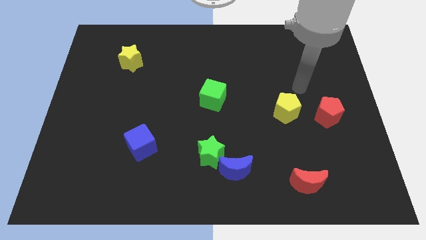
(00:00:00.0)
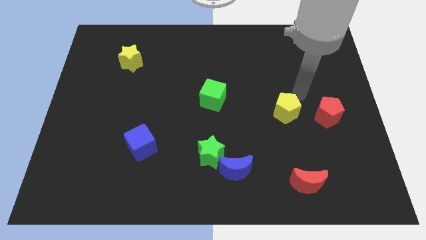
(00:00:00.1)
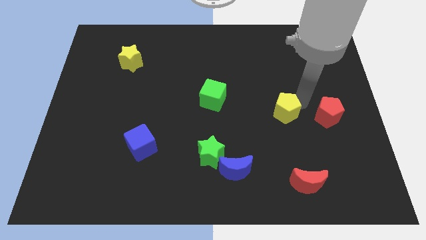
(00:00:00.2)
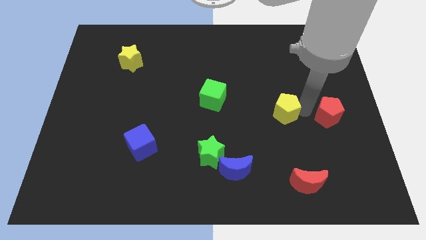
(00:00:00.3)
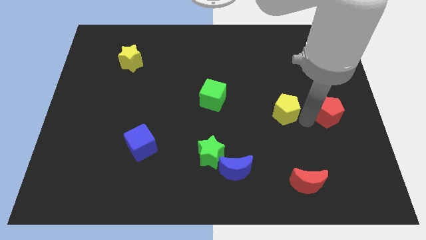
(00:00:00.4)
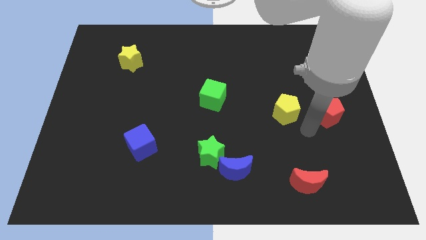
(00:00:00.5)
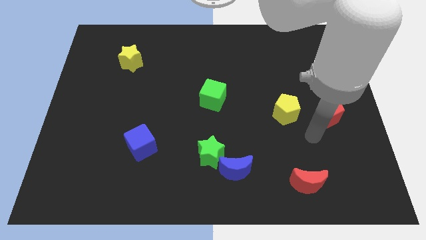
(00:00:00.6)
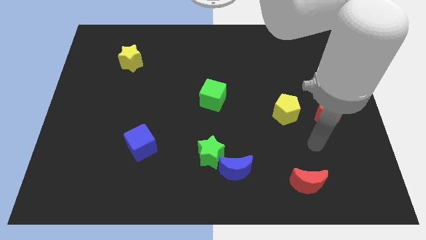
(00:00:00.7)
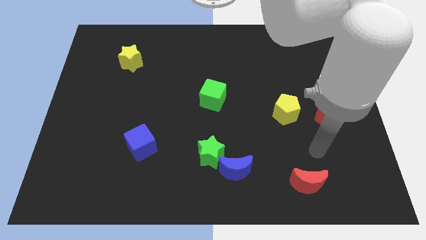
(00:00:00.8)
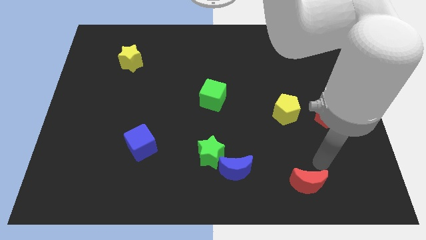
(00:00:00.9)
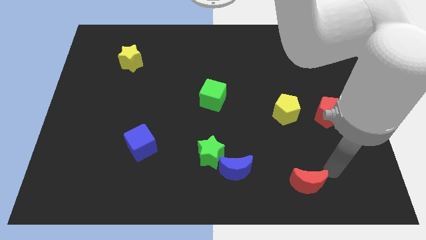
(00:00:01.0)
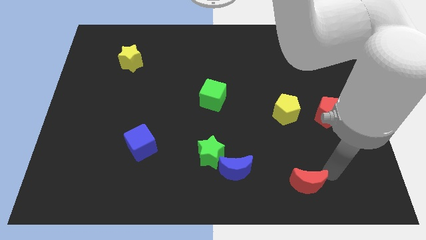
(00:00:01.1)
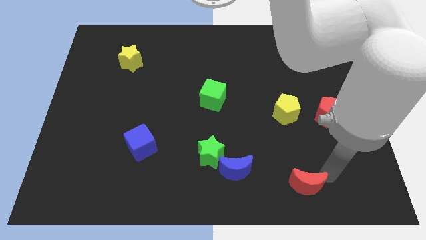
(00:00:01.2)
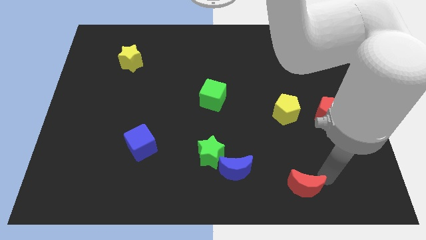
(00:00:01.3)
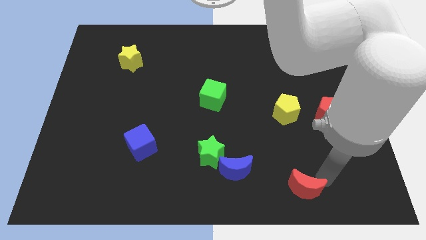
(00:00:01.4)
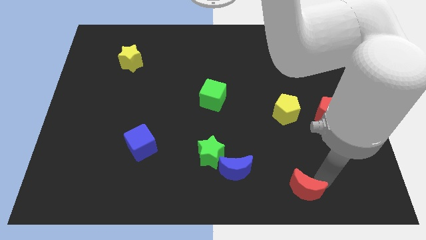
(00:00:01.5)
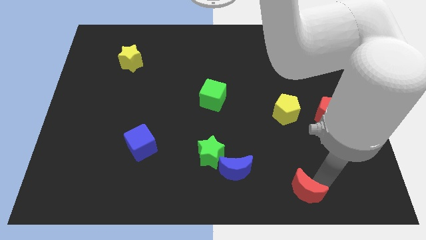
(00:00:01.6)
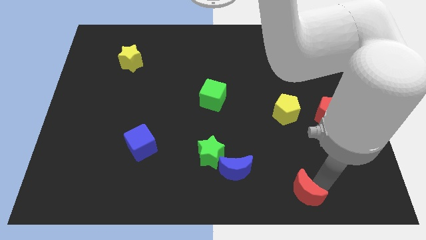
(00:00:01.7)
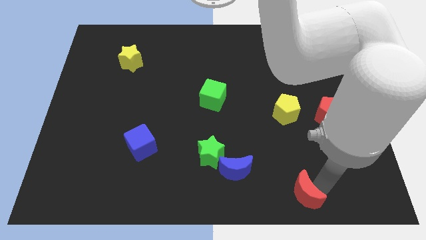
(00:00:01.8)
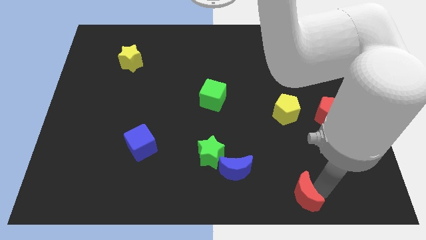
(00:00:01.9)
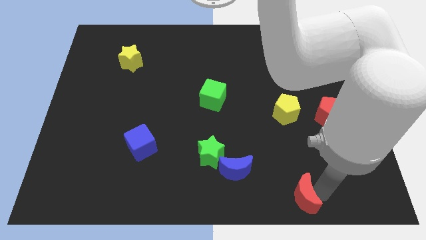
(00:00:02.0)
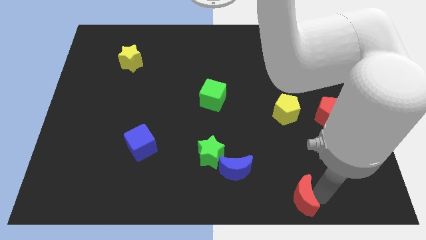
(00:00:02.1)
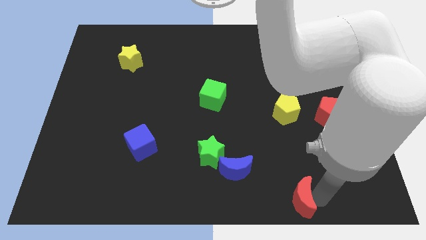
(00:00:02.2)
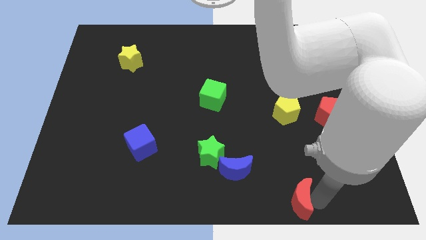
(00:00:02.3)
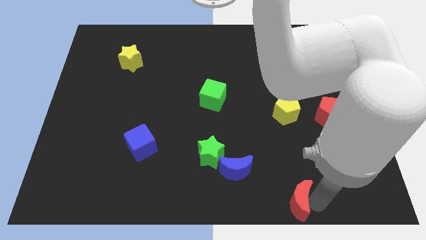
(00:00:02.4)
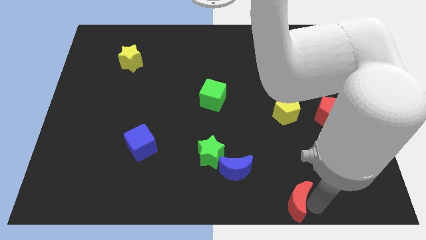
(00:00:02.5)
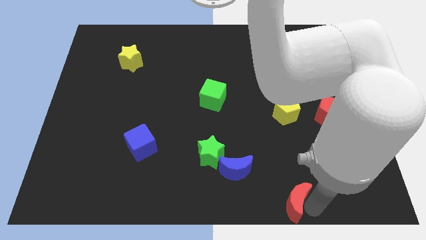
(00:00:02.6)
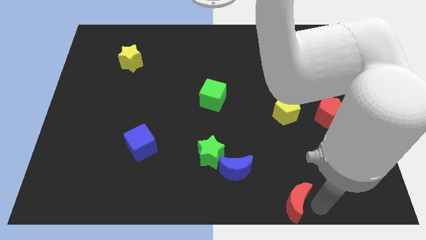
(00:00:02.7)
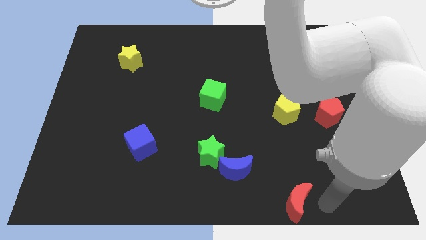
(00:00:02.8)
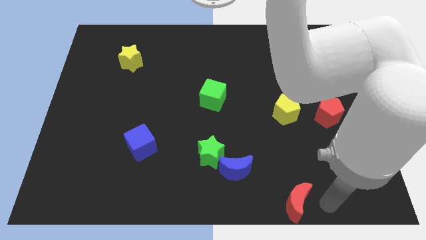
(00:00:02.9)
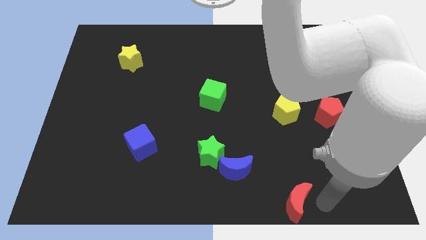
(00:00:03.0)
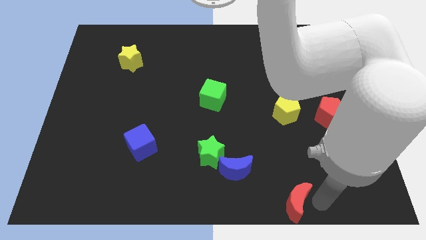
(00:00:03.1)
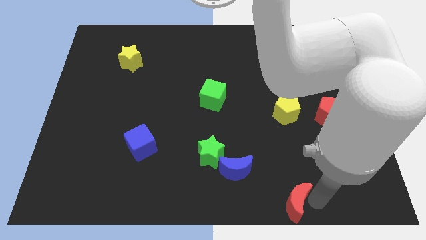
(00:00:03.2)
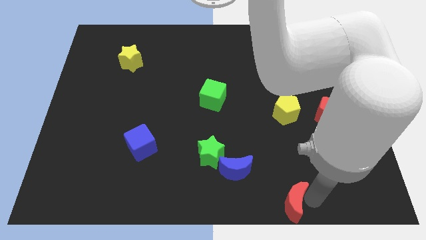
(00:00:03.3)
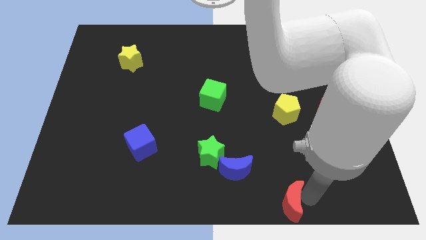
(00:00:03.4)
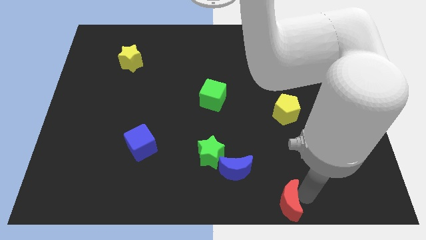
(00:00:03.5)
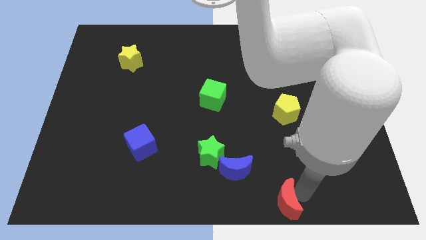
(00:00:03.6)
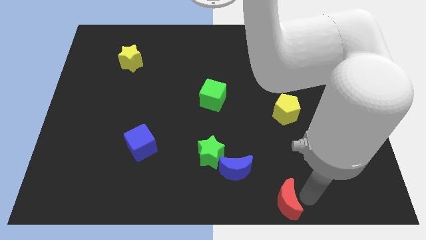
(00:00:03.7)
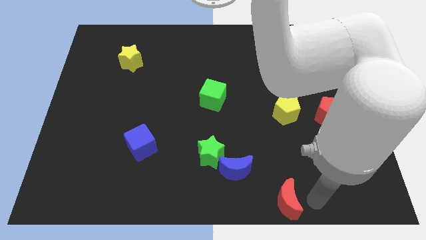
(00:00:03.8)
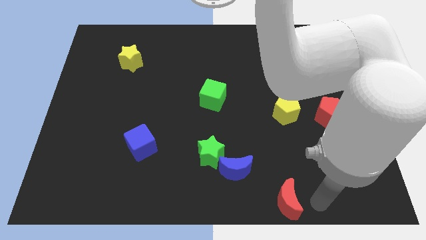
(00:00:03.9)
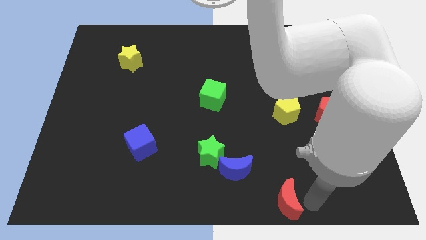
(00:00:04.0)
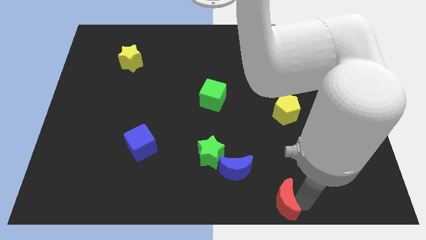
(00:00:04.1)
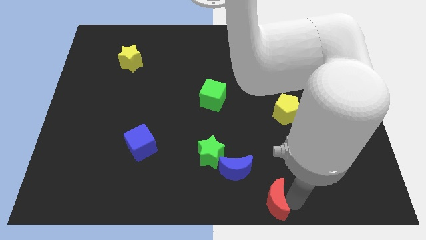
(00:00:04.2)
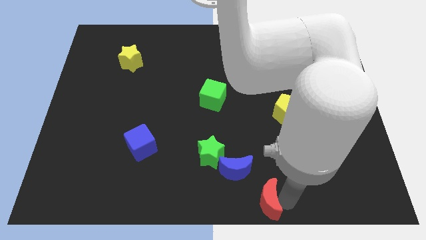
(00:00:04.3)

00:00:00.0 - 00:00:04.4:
move the red moon a bit to the left

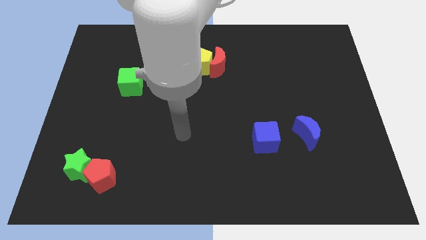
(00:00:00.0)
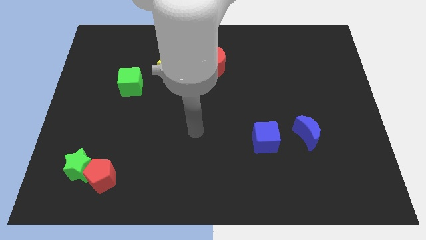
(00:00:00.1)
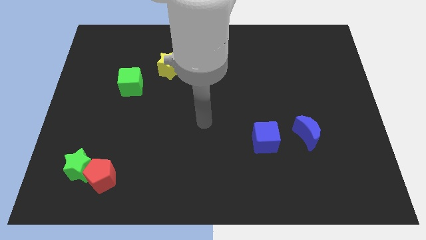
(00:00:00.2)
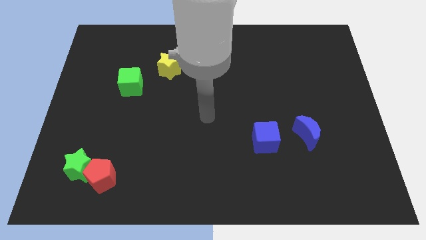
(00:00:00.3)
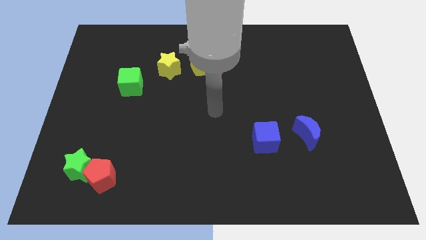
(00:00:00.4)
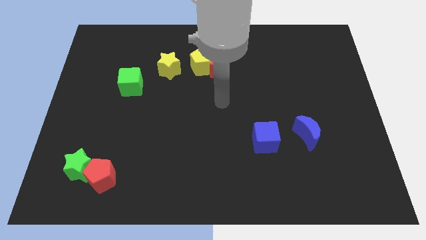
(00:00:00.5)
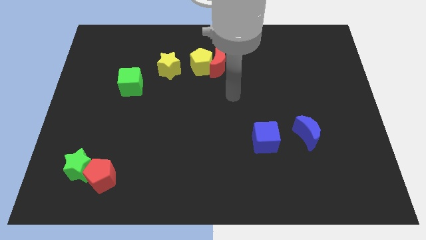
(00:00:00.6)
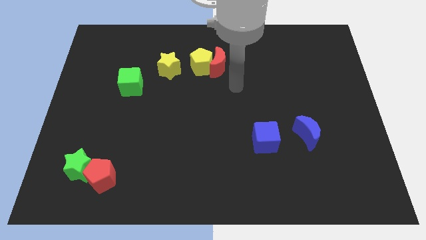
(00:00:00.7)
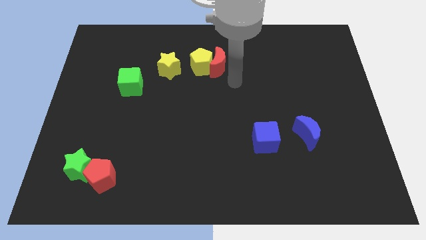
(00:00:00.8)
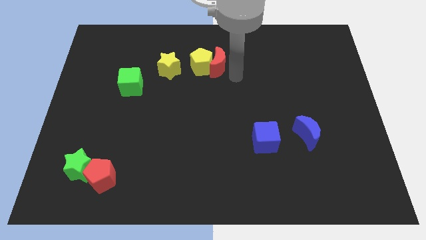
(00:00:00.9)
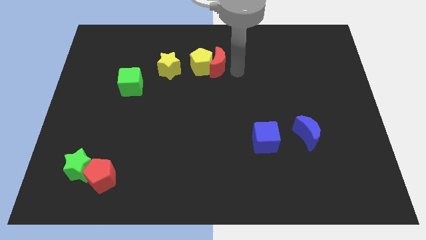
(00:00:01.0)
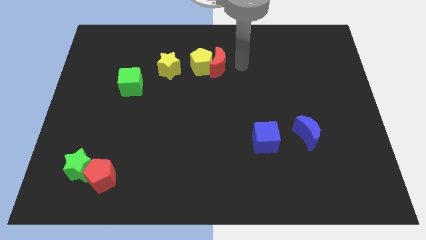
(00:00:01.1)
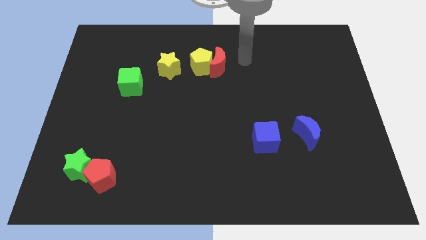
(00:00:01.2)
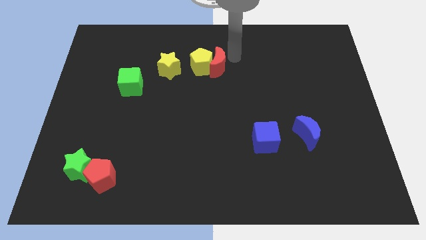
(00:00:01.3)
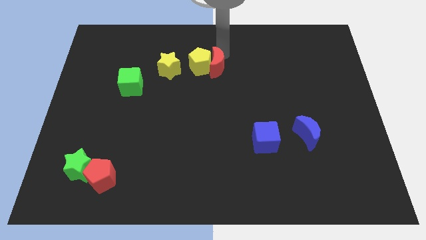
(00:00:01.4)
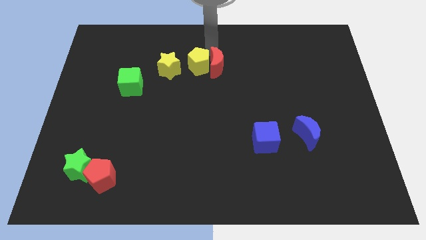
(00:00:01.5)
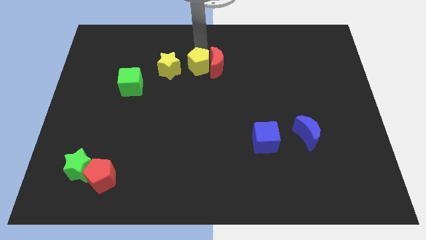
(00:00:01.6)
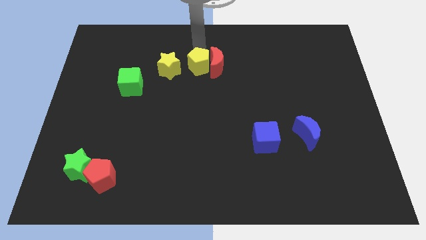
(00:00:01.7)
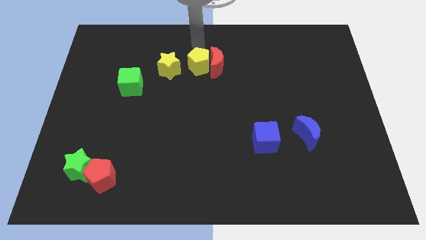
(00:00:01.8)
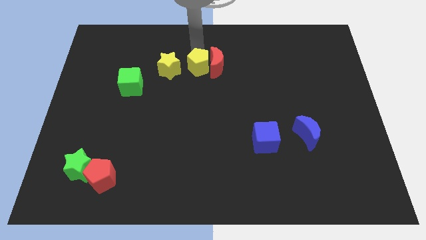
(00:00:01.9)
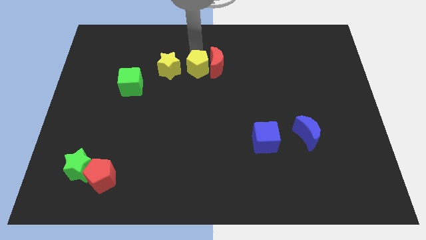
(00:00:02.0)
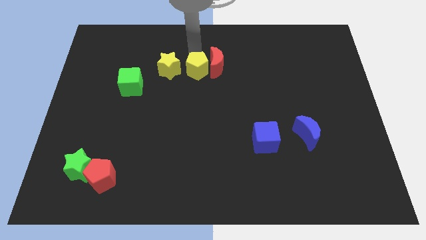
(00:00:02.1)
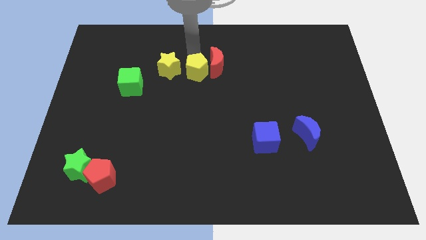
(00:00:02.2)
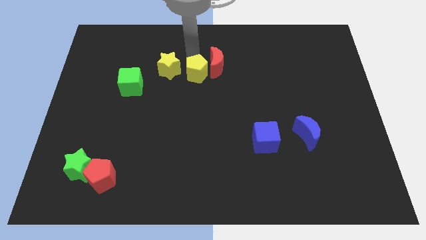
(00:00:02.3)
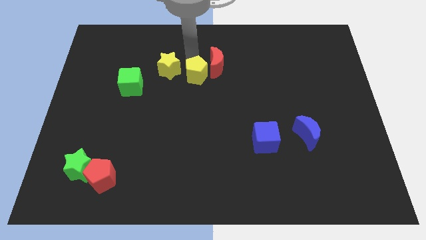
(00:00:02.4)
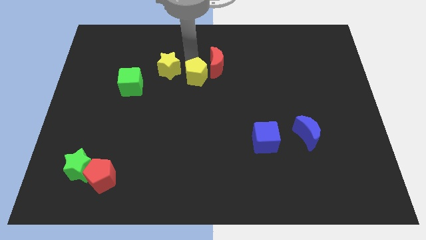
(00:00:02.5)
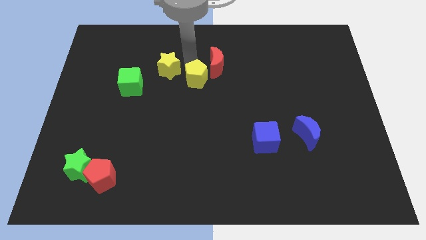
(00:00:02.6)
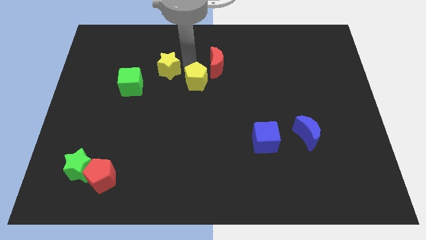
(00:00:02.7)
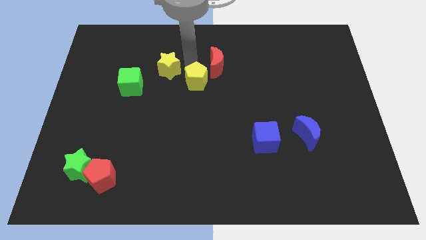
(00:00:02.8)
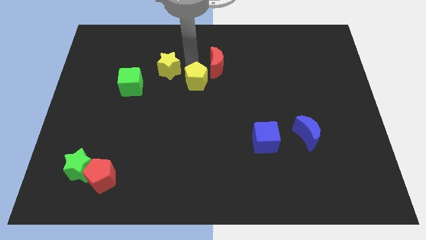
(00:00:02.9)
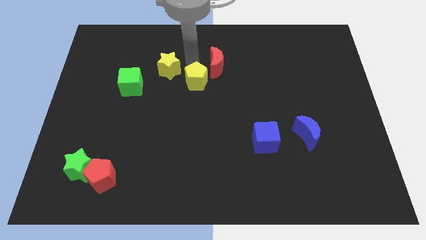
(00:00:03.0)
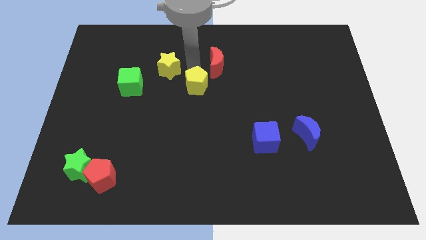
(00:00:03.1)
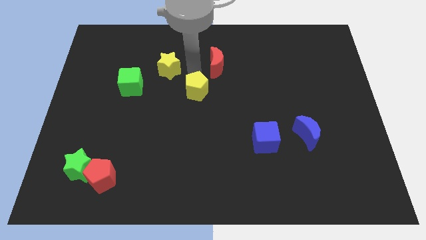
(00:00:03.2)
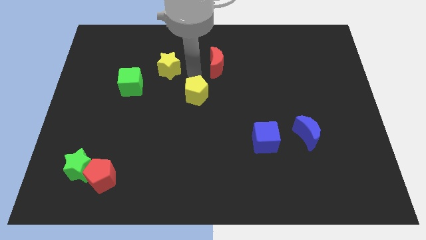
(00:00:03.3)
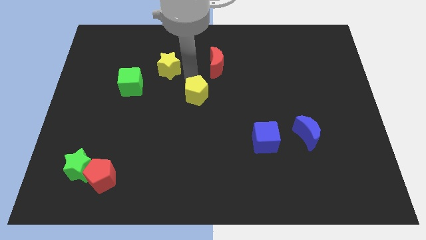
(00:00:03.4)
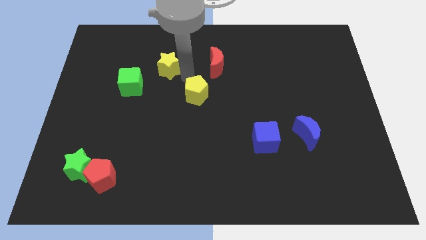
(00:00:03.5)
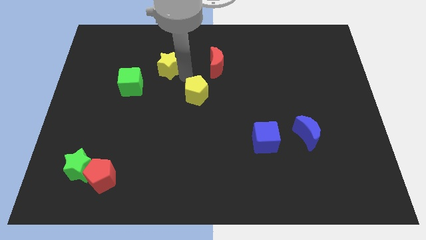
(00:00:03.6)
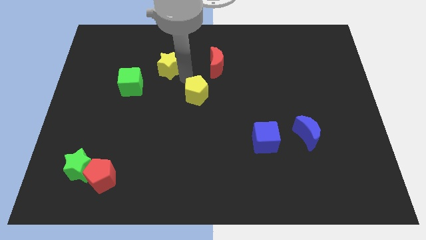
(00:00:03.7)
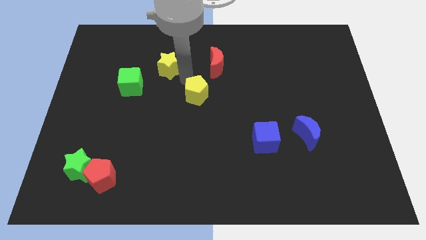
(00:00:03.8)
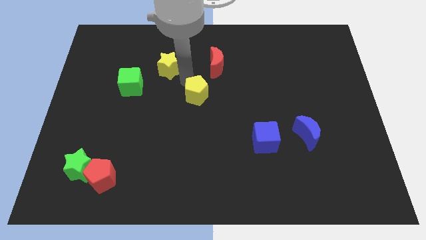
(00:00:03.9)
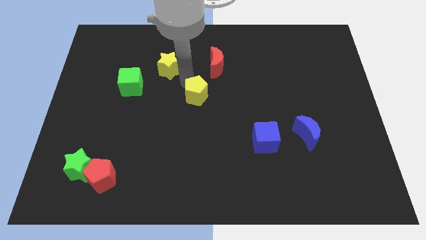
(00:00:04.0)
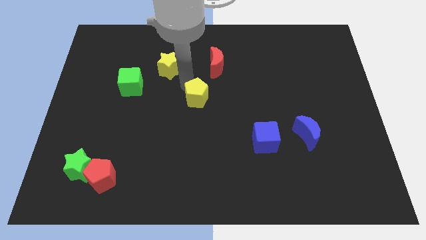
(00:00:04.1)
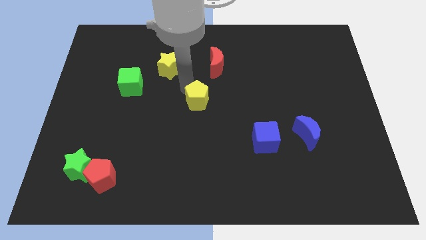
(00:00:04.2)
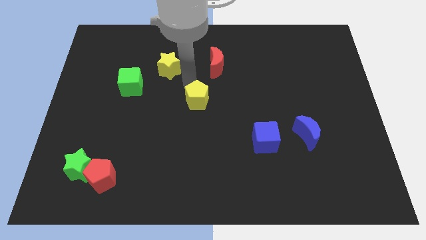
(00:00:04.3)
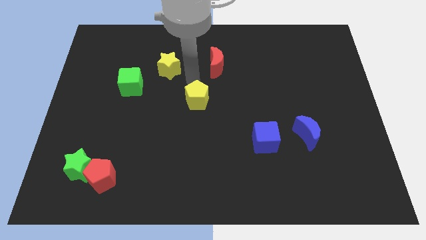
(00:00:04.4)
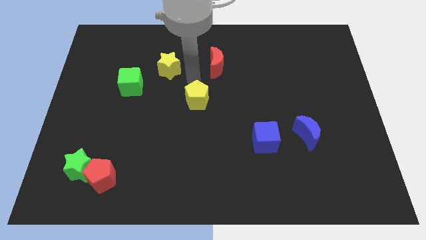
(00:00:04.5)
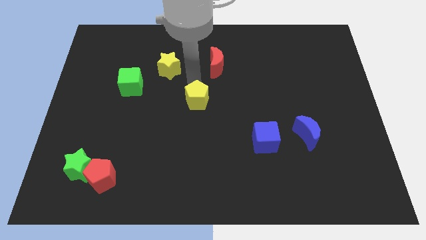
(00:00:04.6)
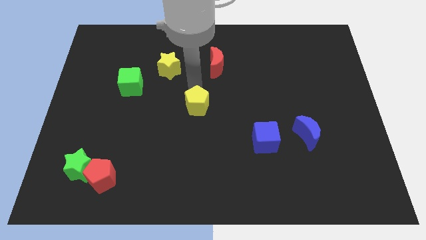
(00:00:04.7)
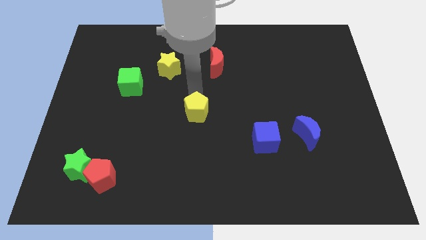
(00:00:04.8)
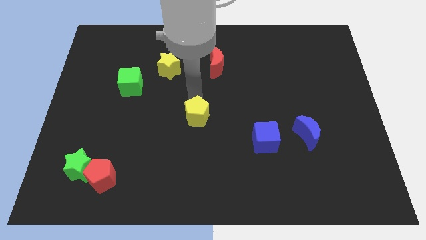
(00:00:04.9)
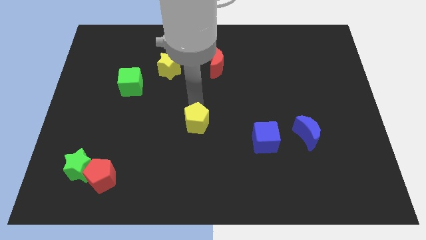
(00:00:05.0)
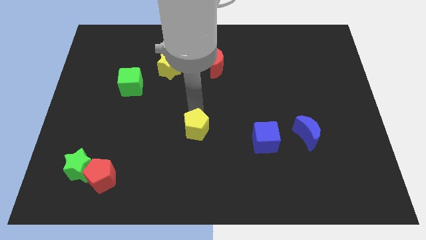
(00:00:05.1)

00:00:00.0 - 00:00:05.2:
slide the yellow pentagon downwards
